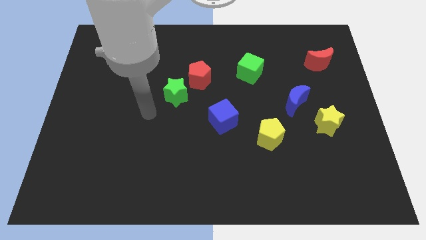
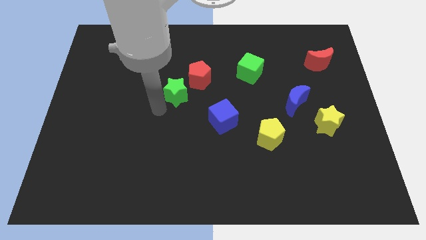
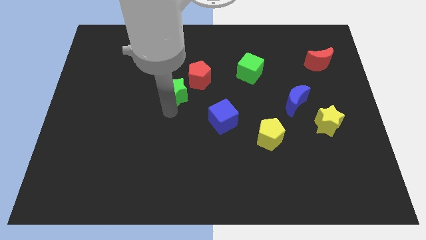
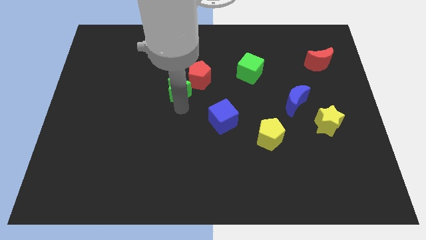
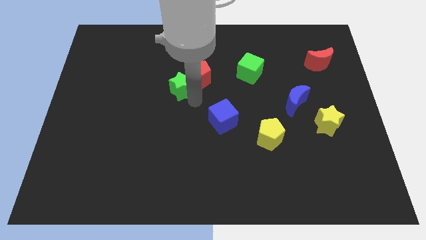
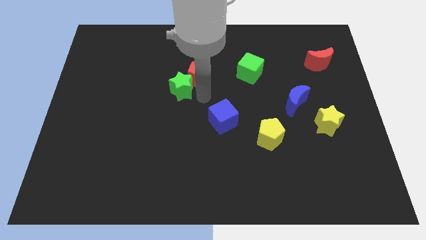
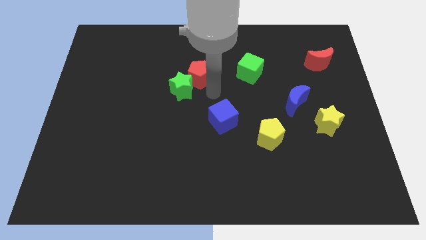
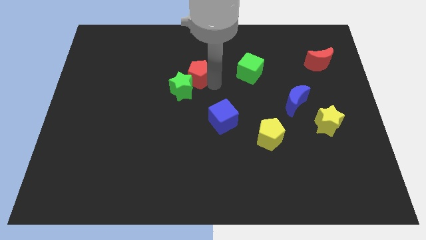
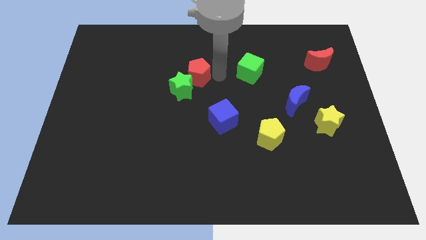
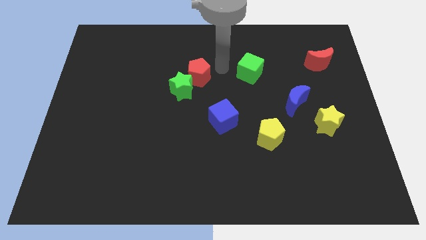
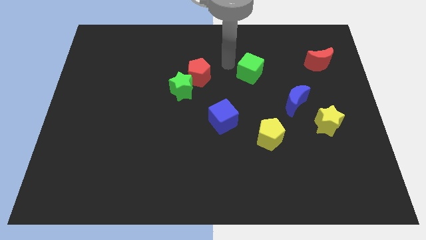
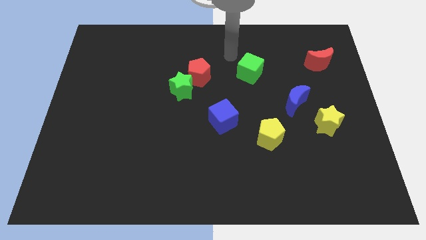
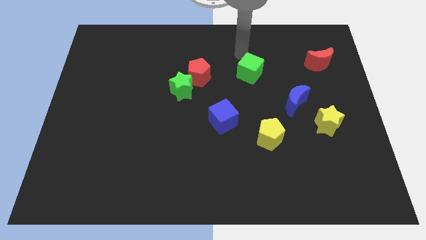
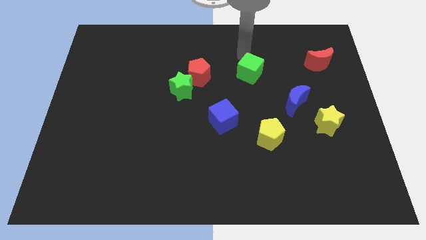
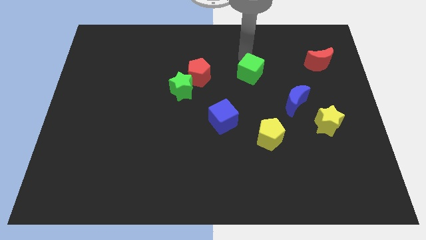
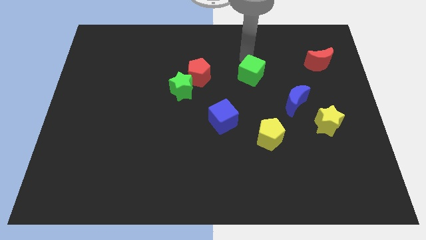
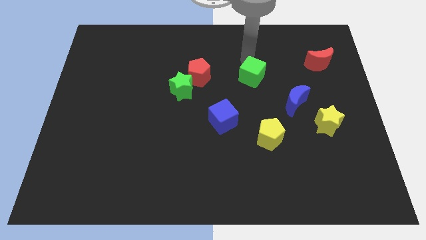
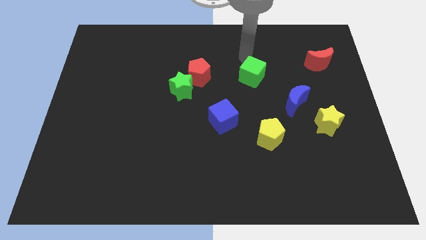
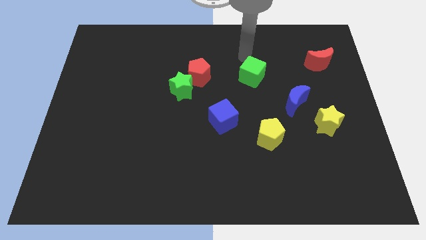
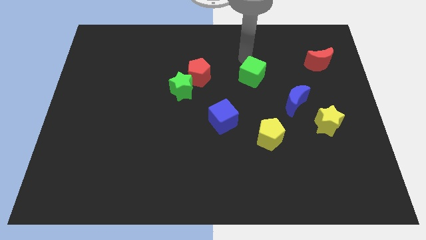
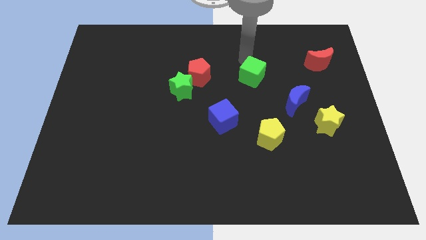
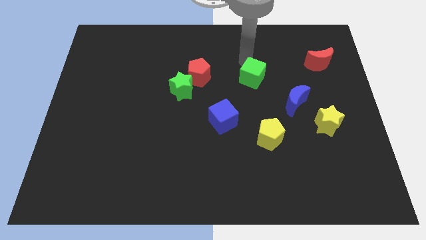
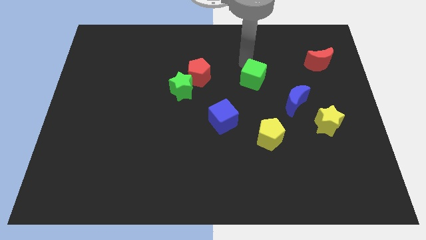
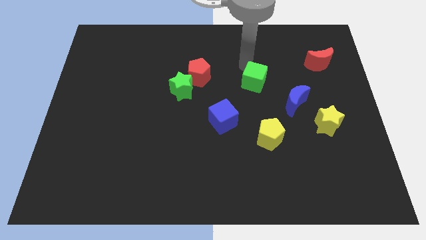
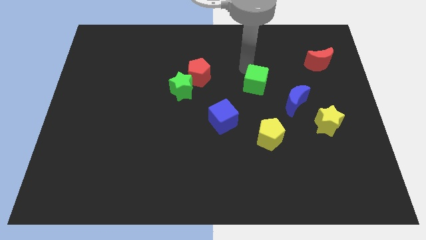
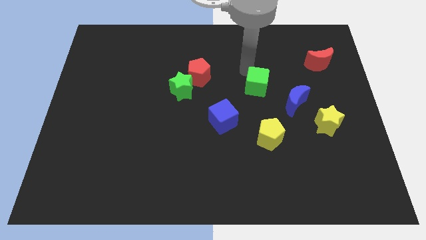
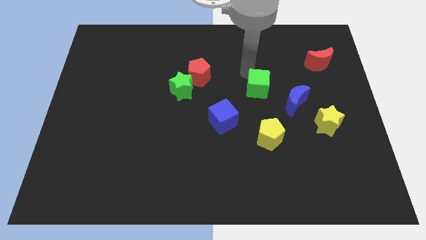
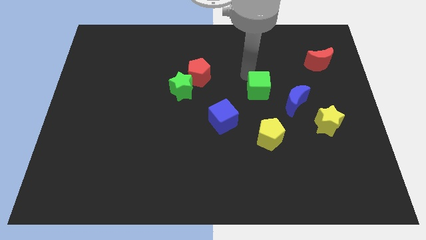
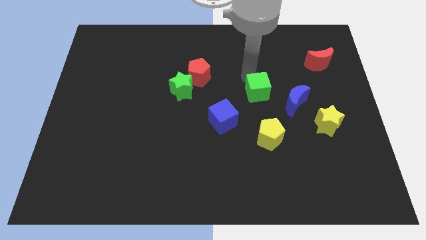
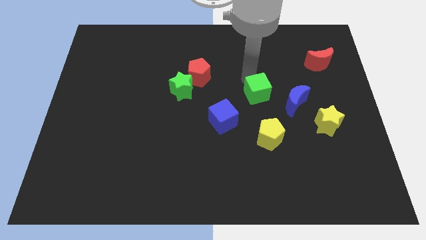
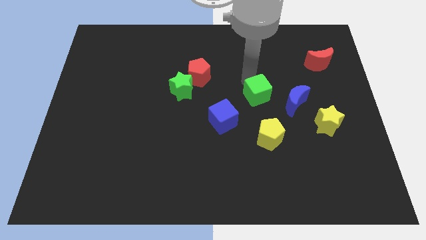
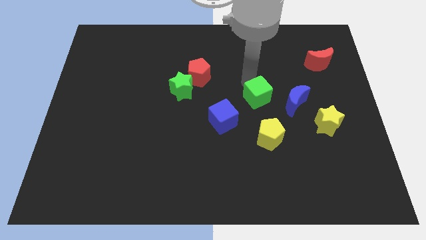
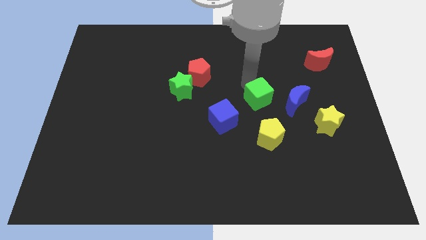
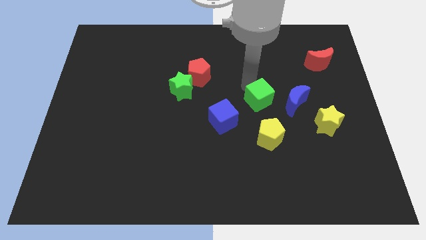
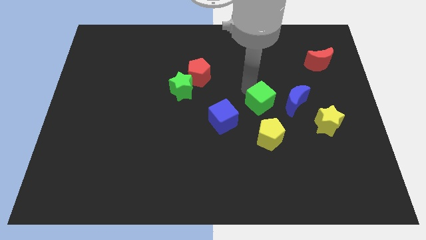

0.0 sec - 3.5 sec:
push the green cube down and to the right diagonally somewhat

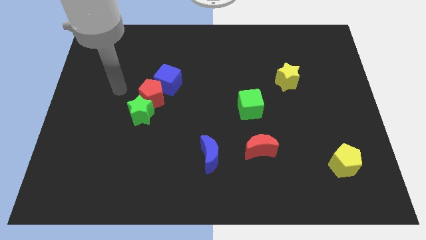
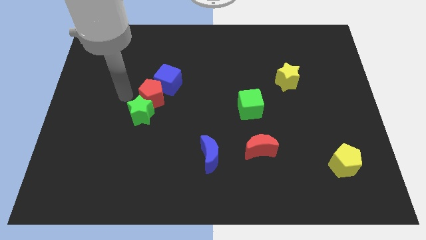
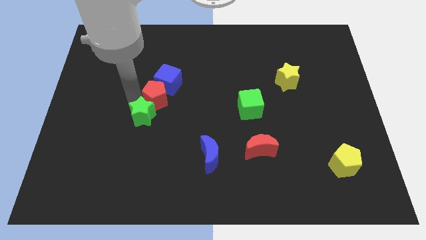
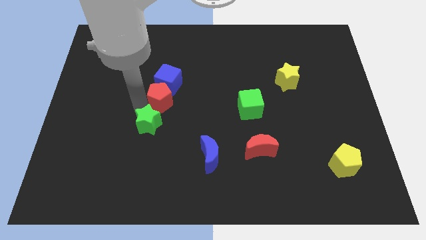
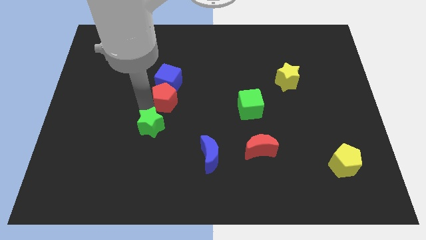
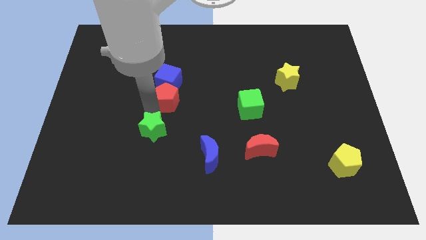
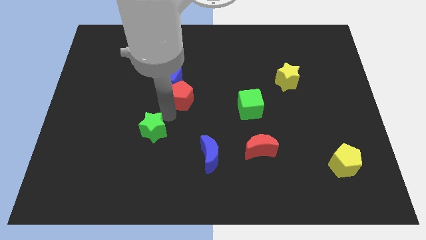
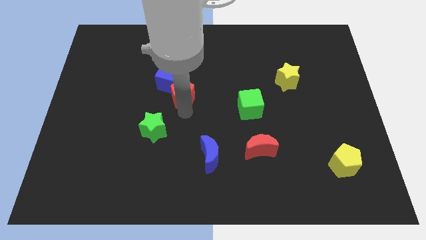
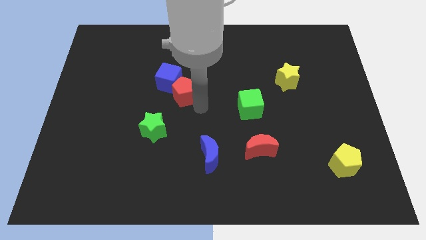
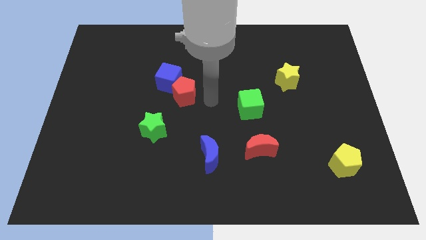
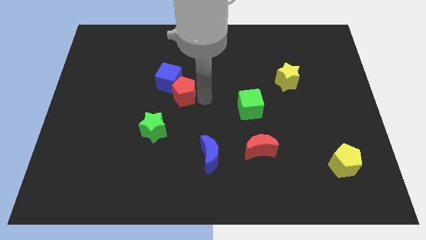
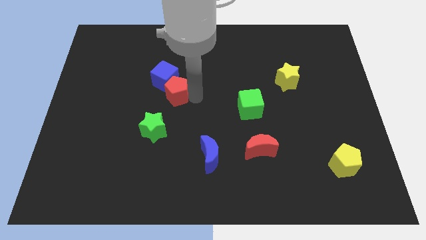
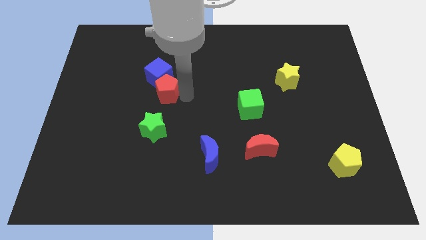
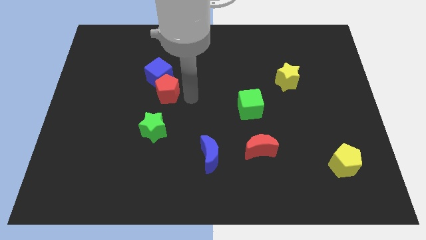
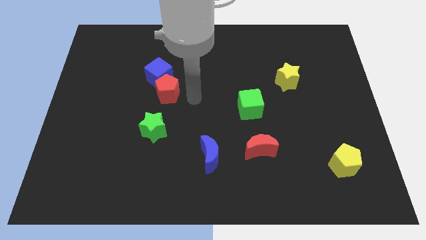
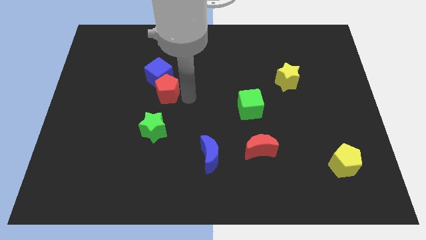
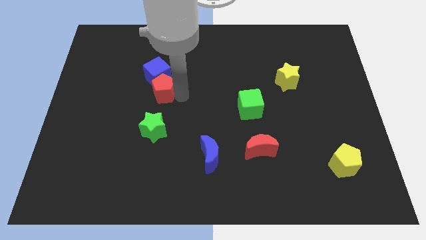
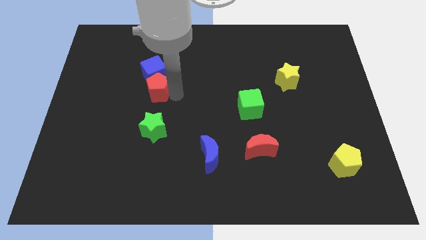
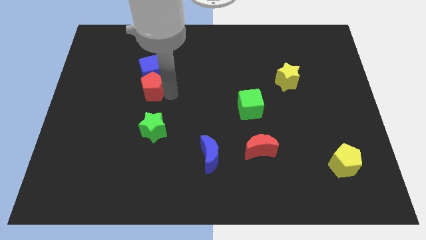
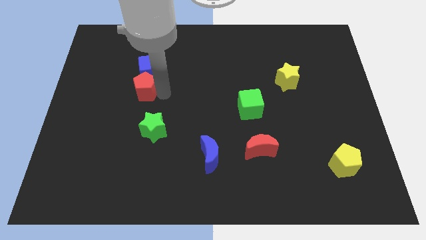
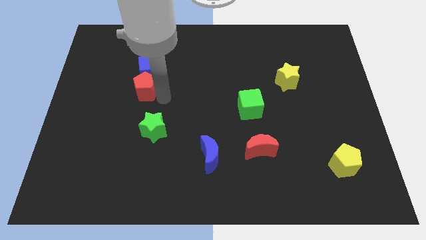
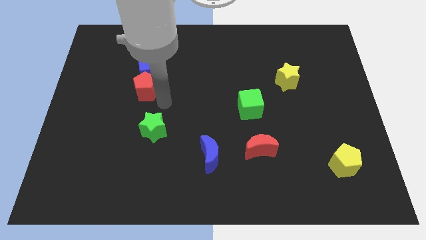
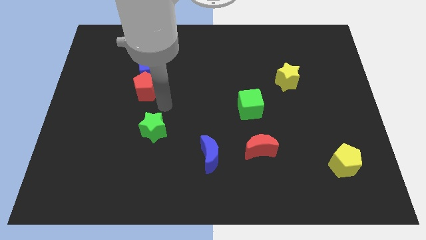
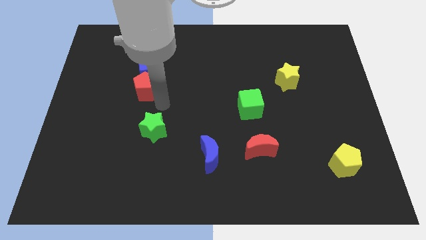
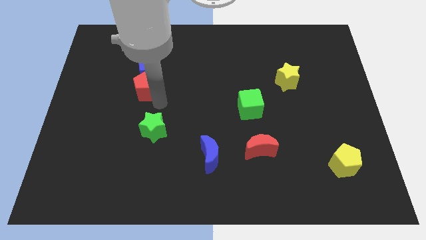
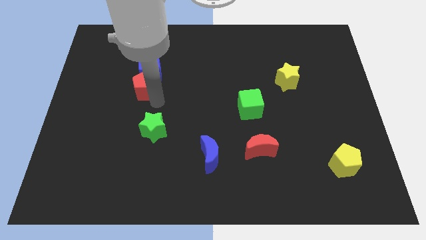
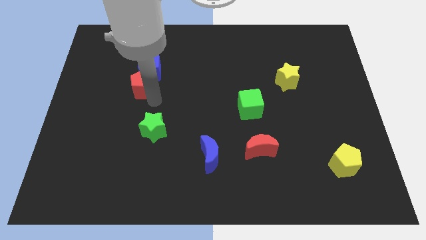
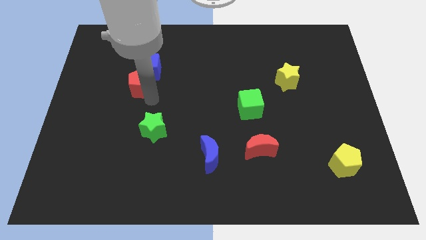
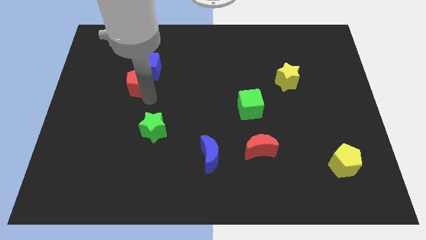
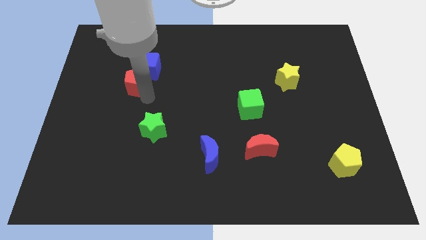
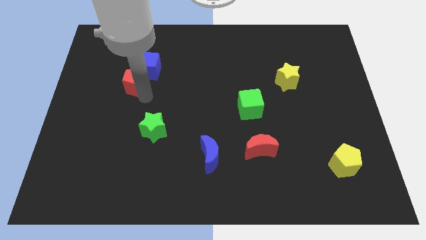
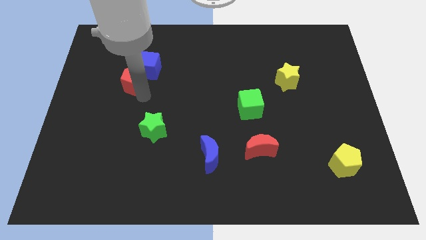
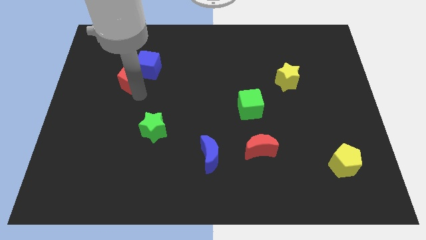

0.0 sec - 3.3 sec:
slightly move the red pentagon diagonally upwards and left

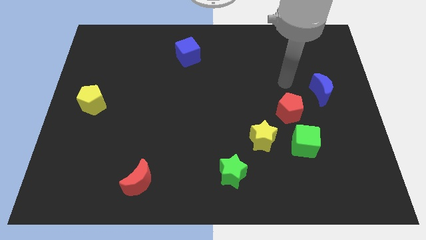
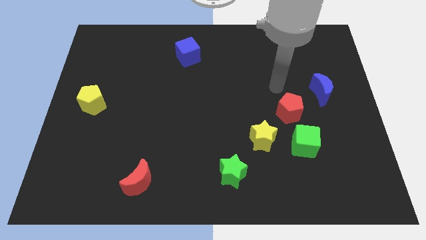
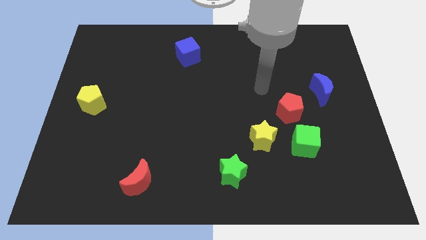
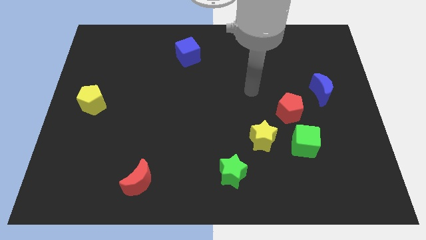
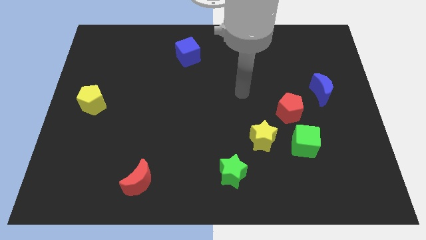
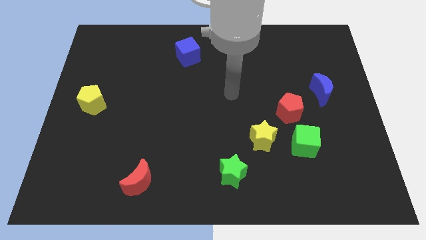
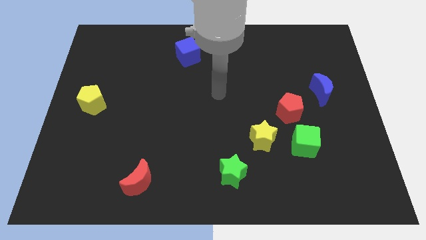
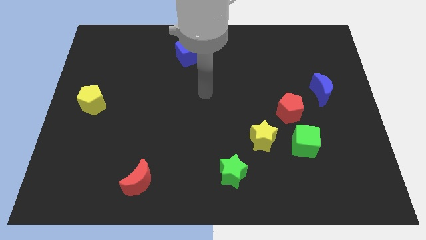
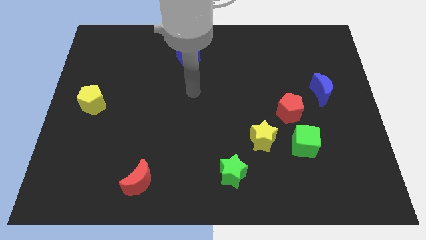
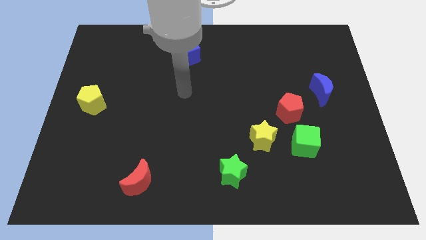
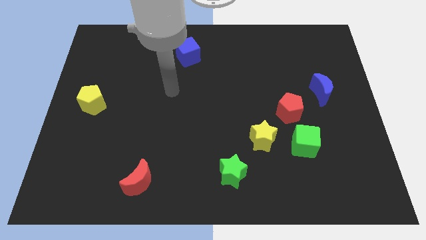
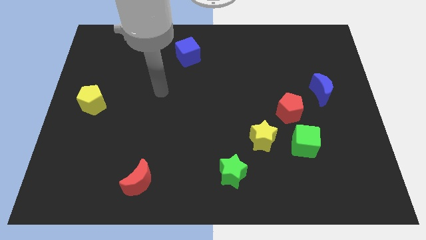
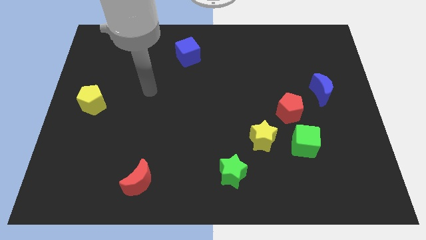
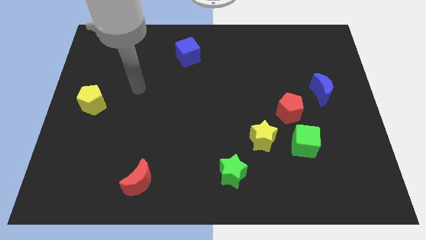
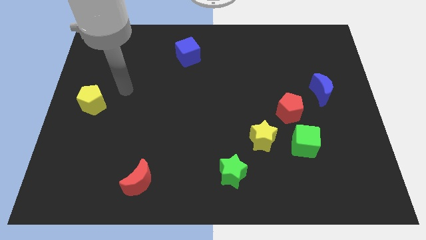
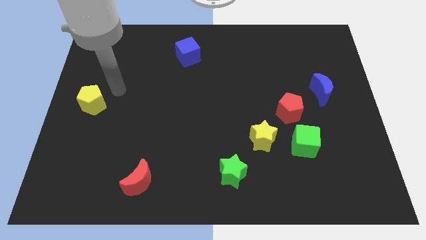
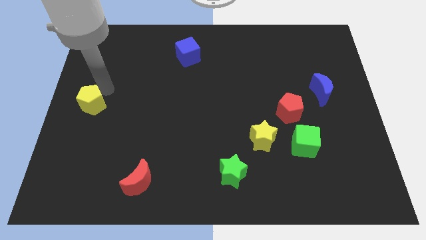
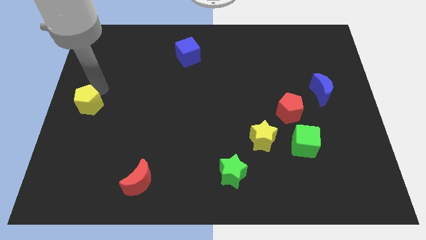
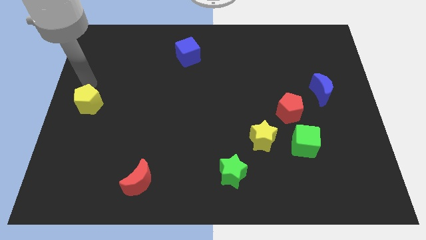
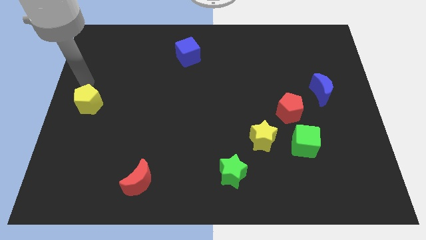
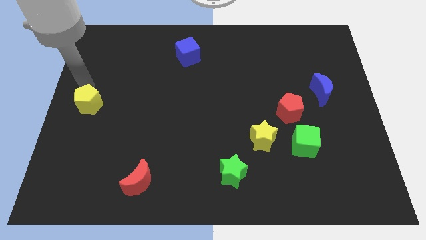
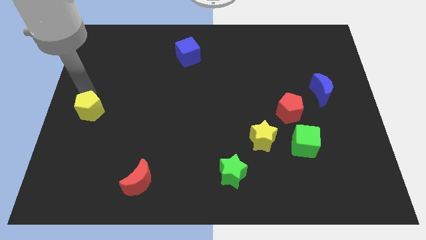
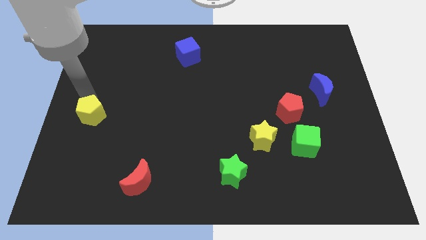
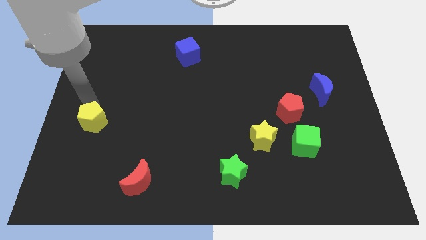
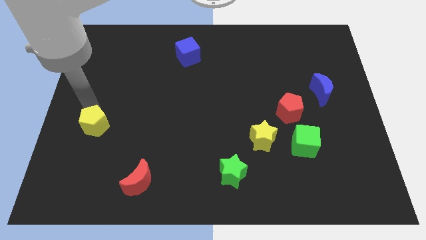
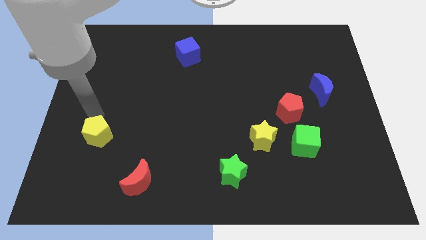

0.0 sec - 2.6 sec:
move the yellow pentagon somewhat down
